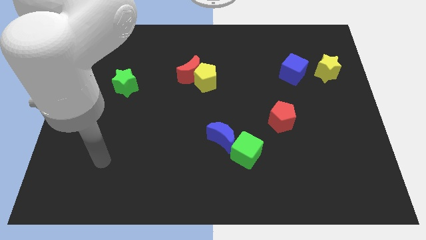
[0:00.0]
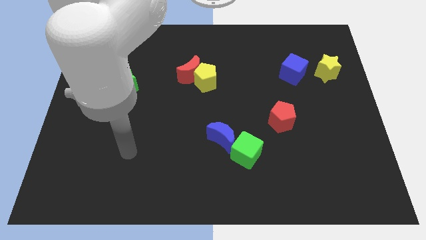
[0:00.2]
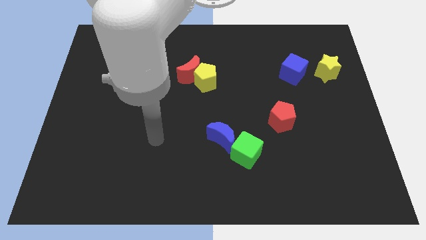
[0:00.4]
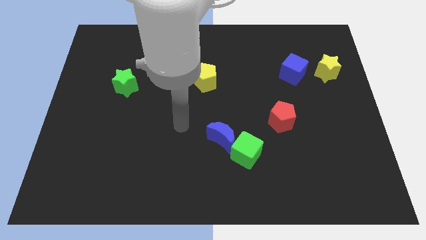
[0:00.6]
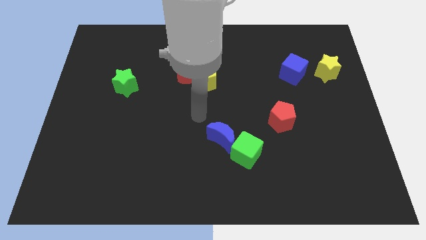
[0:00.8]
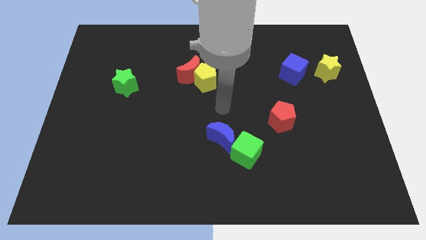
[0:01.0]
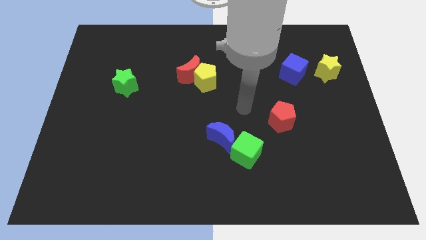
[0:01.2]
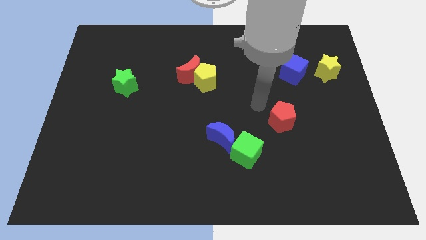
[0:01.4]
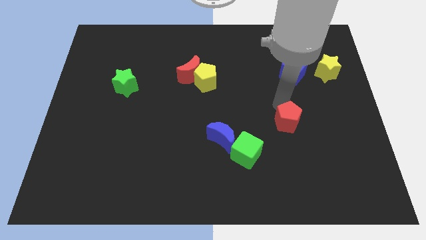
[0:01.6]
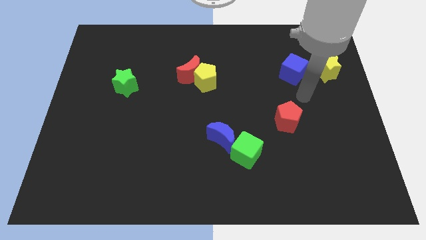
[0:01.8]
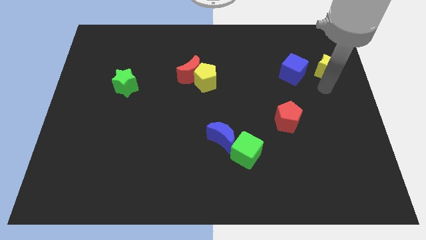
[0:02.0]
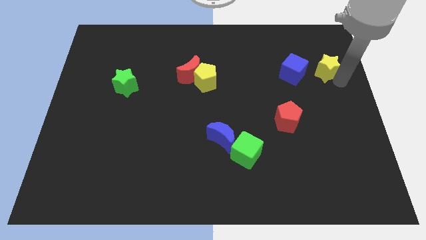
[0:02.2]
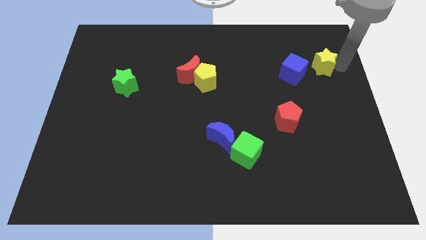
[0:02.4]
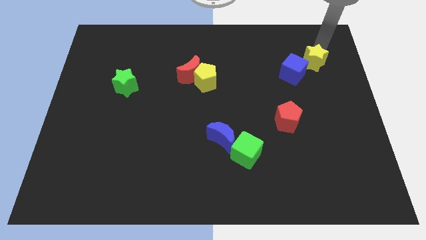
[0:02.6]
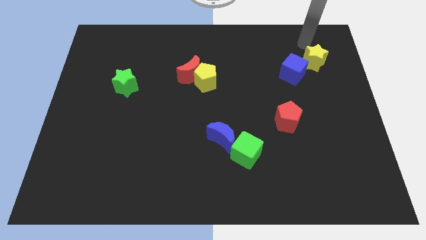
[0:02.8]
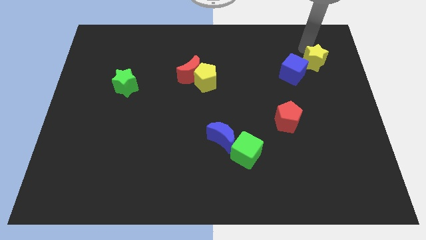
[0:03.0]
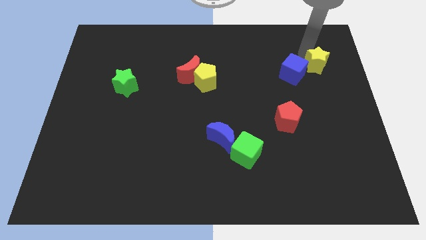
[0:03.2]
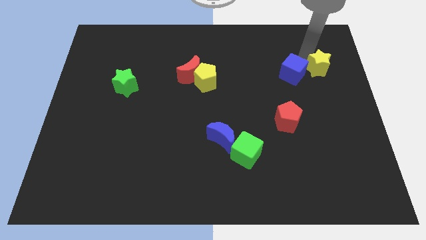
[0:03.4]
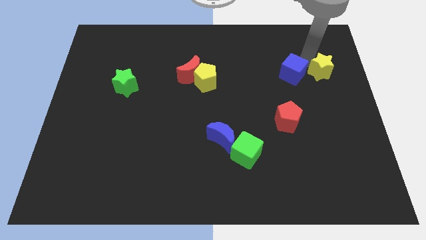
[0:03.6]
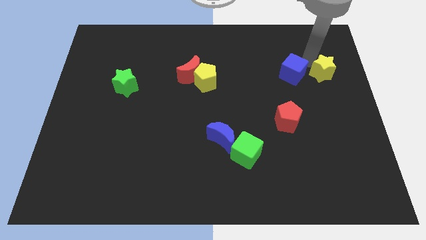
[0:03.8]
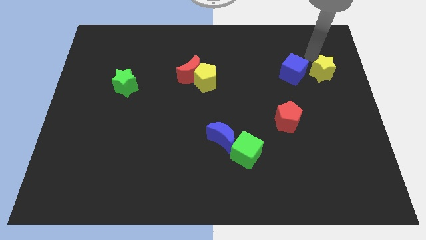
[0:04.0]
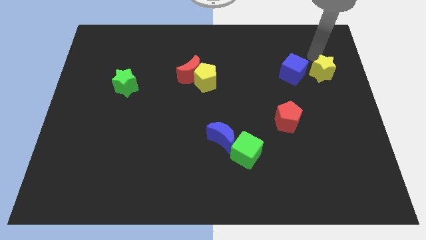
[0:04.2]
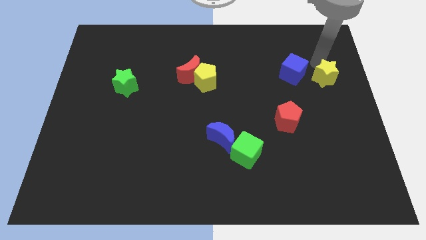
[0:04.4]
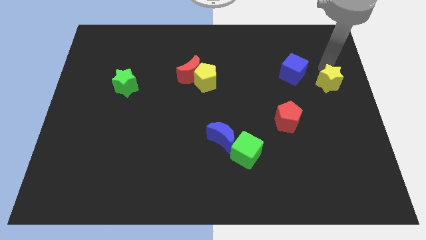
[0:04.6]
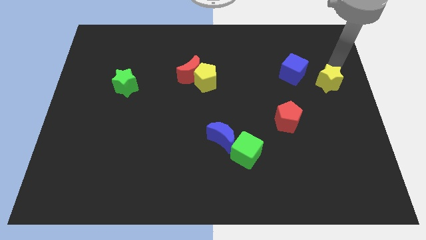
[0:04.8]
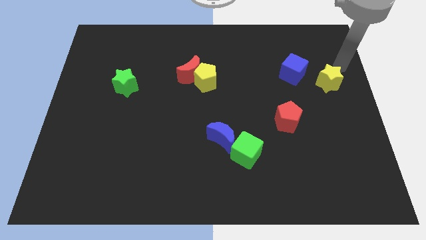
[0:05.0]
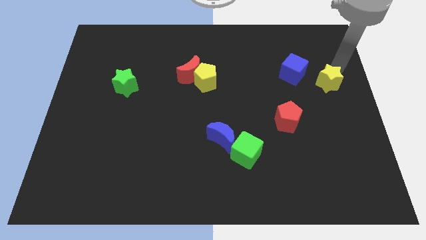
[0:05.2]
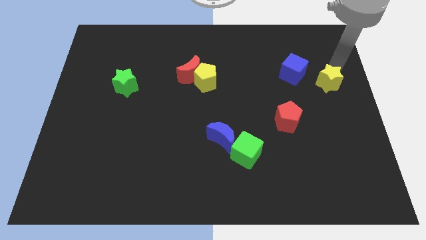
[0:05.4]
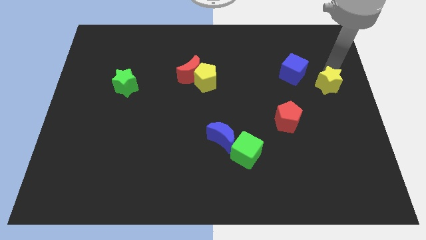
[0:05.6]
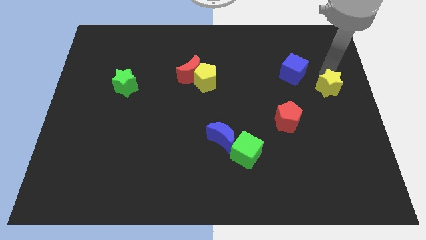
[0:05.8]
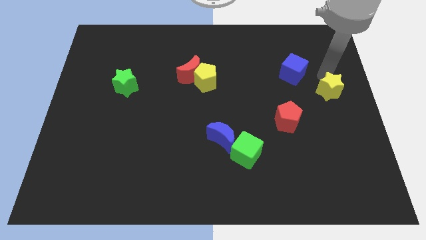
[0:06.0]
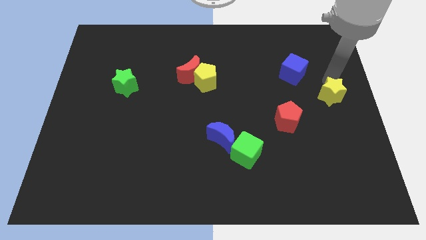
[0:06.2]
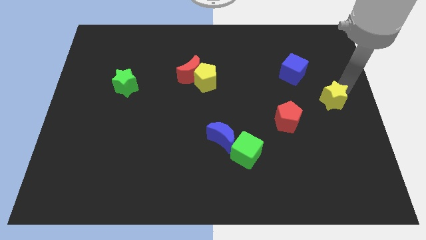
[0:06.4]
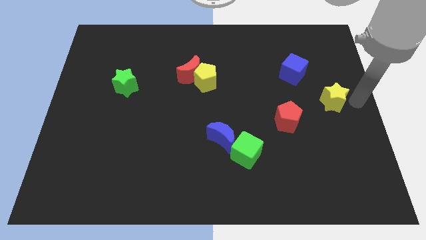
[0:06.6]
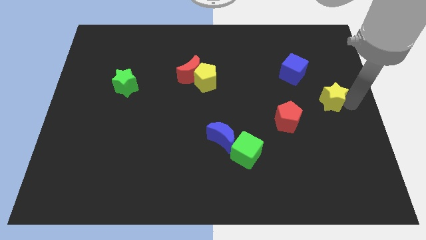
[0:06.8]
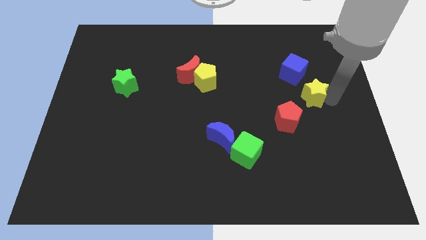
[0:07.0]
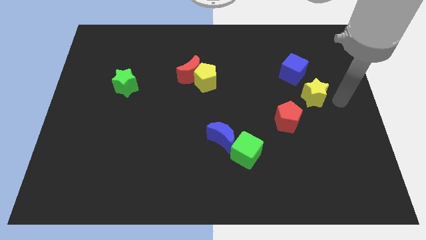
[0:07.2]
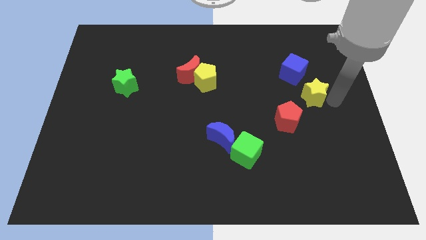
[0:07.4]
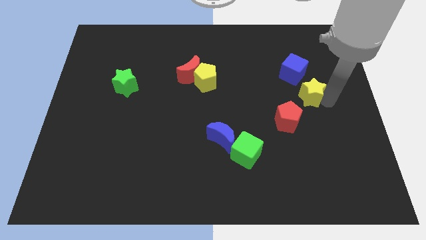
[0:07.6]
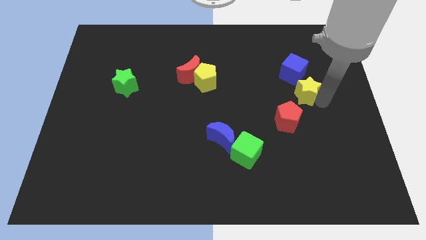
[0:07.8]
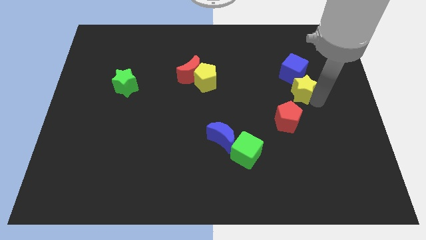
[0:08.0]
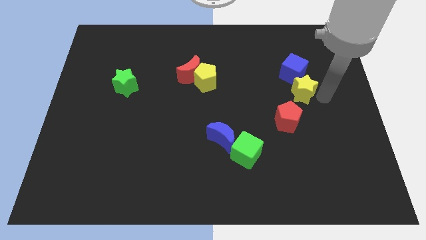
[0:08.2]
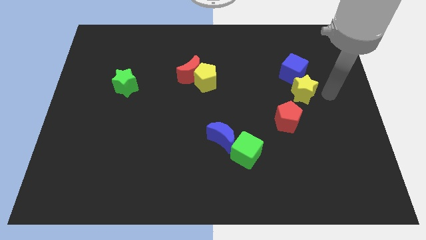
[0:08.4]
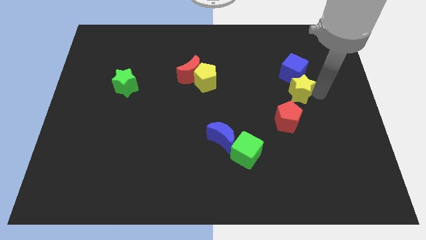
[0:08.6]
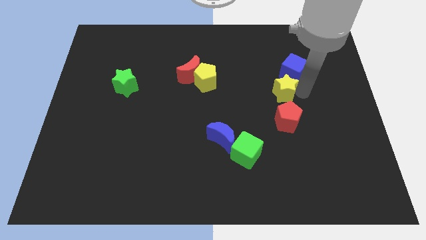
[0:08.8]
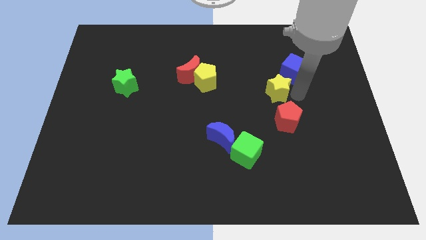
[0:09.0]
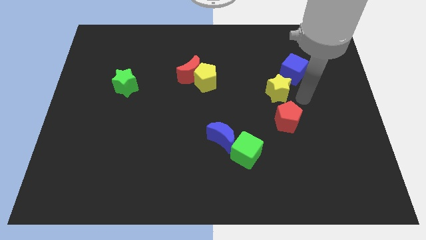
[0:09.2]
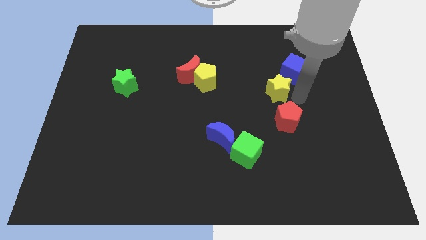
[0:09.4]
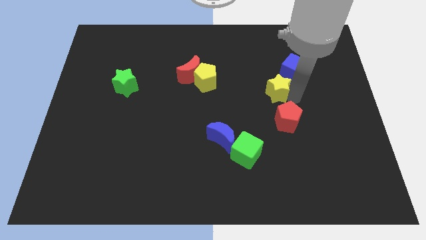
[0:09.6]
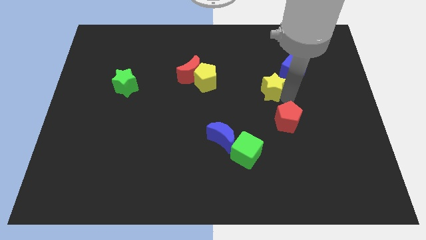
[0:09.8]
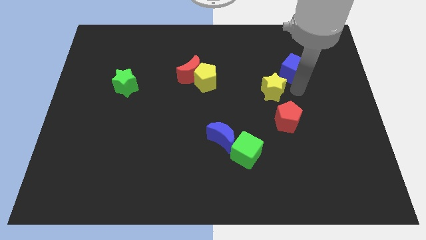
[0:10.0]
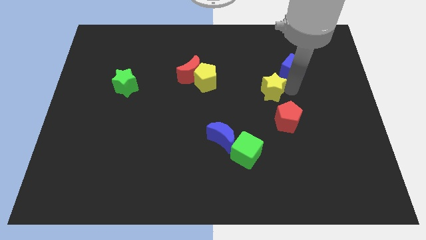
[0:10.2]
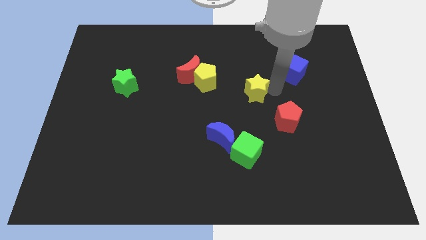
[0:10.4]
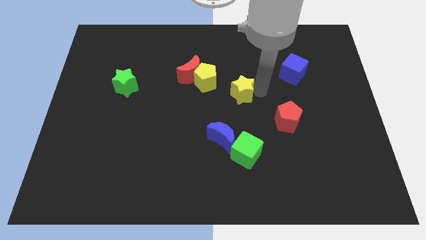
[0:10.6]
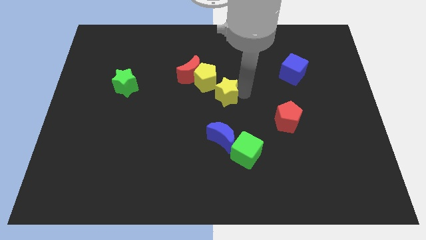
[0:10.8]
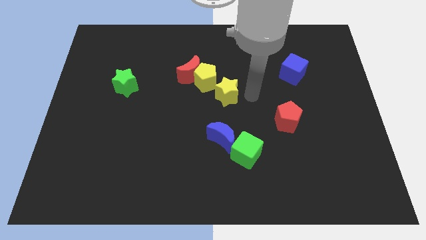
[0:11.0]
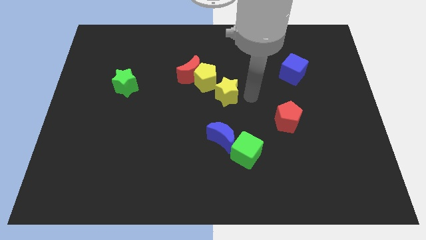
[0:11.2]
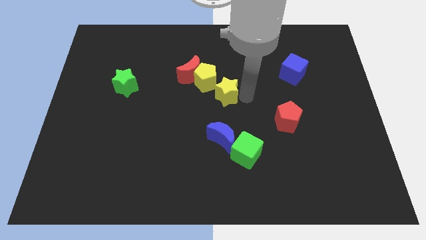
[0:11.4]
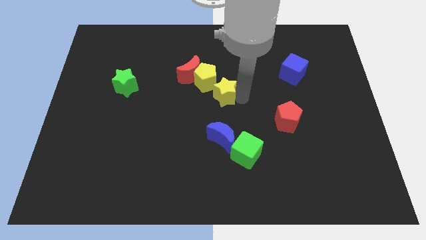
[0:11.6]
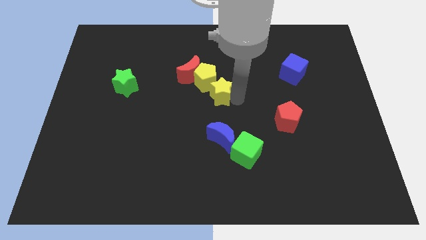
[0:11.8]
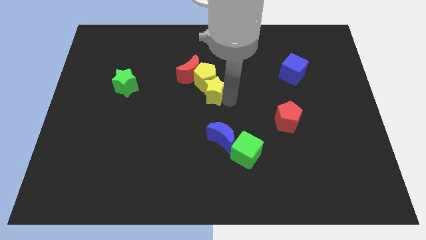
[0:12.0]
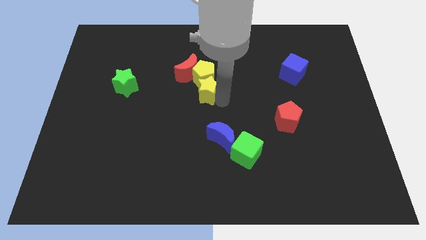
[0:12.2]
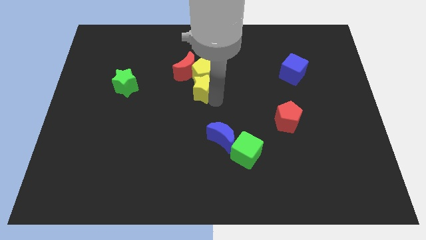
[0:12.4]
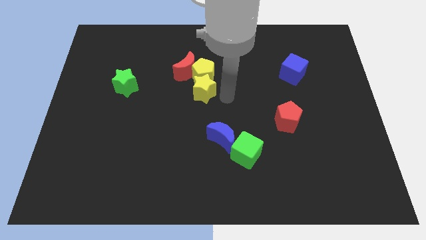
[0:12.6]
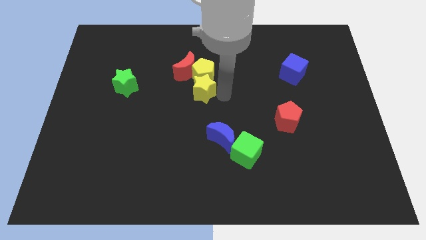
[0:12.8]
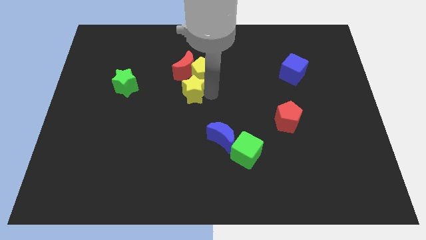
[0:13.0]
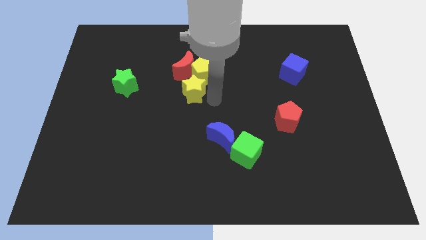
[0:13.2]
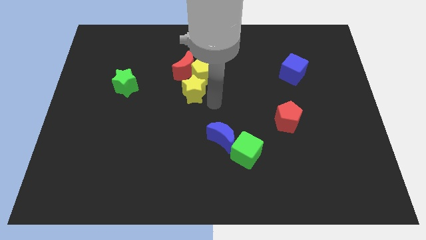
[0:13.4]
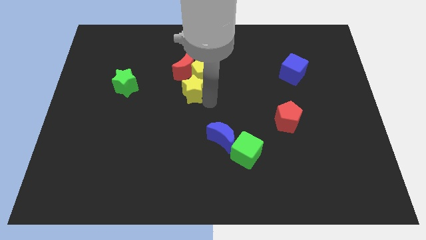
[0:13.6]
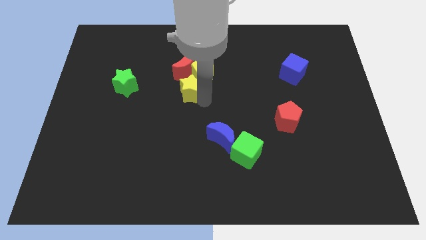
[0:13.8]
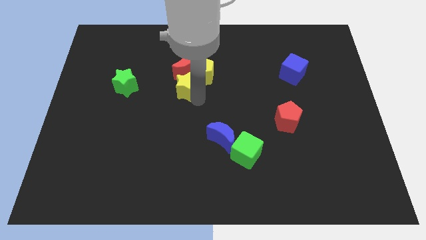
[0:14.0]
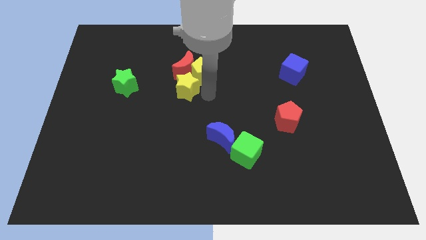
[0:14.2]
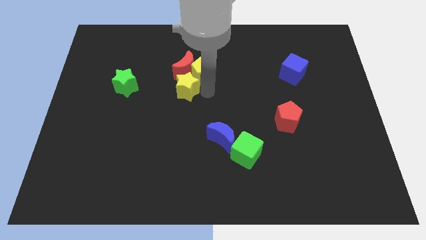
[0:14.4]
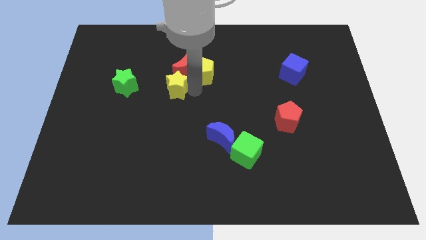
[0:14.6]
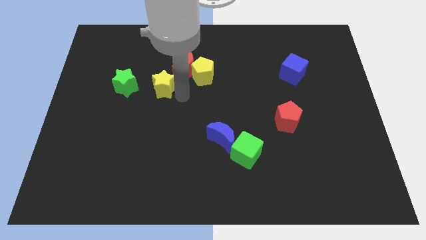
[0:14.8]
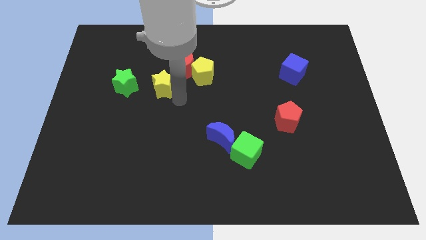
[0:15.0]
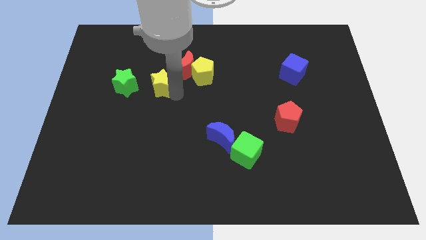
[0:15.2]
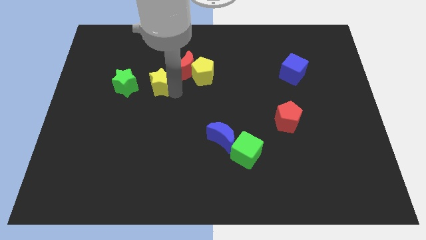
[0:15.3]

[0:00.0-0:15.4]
put the yellow star left of the red moon
